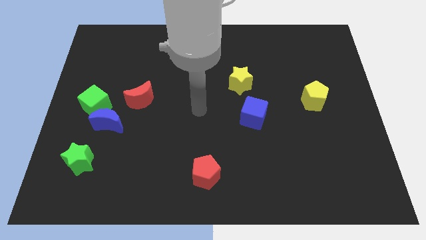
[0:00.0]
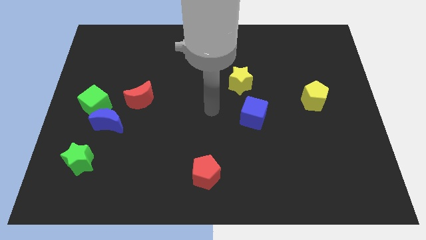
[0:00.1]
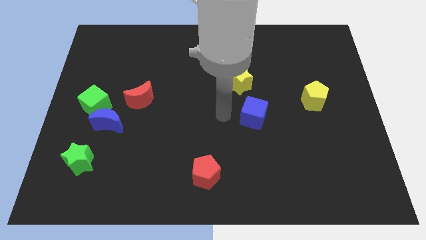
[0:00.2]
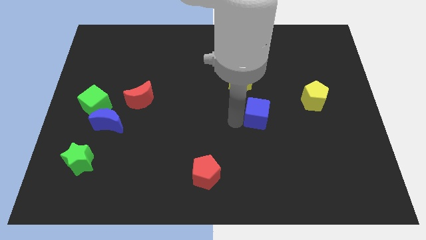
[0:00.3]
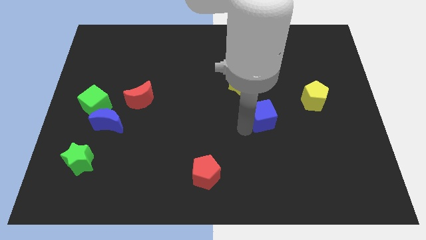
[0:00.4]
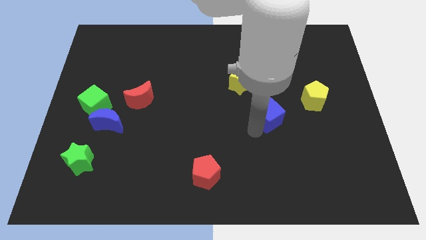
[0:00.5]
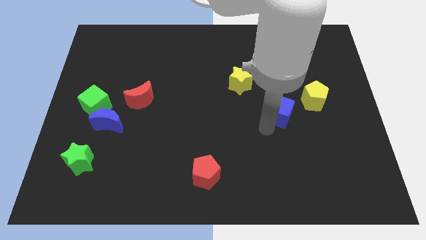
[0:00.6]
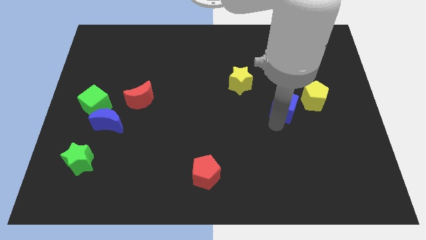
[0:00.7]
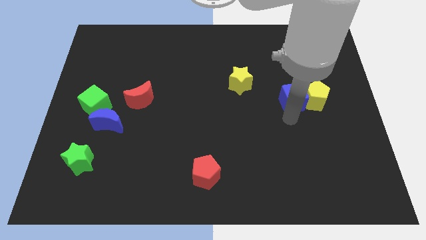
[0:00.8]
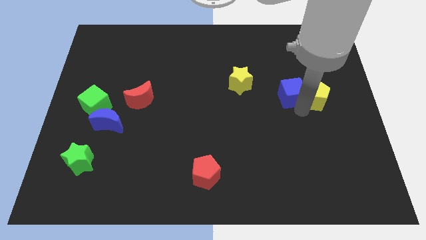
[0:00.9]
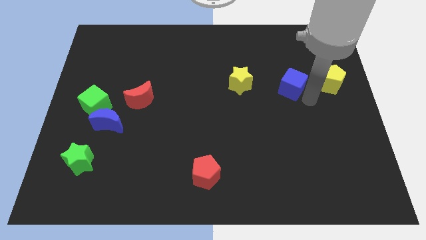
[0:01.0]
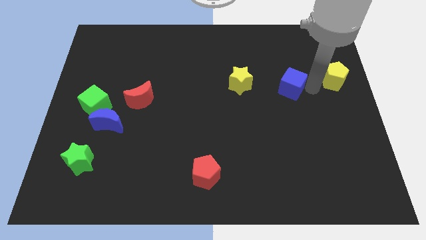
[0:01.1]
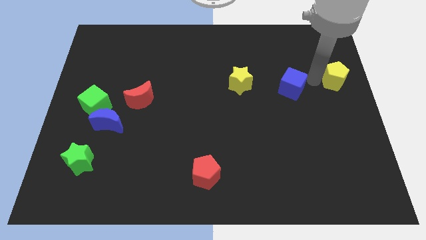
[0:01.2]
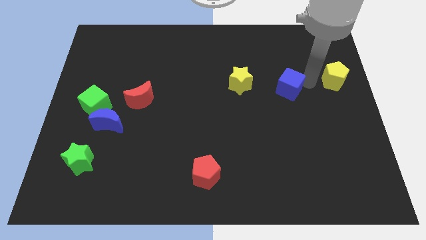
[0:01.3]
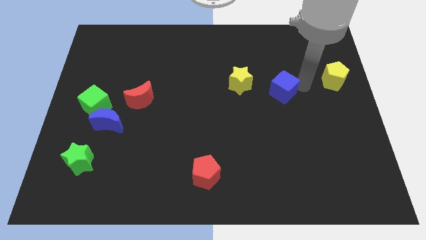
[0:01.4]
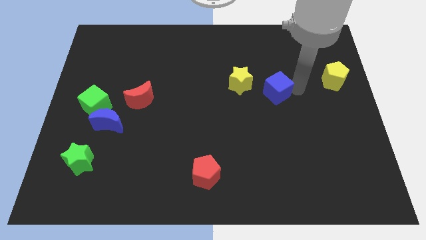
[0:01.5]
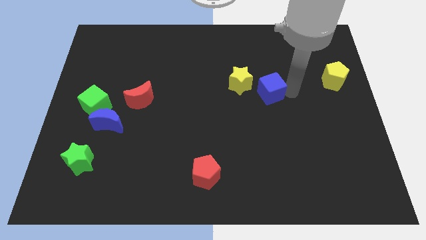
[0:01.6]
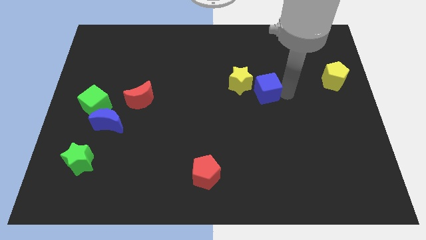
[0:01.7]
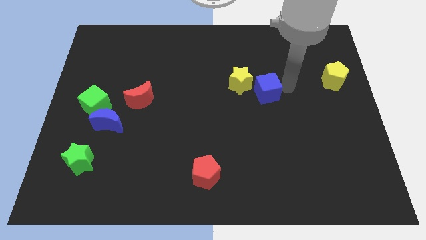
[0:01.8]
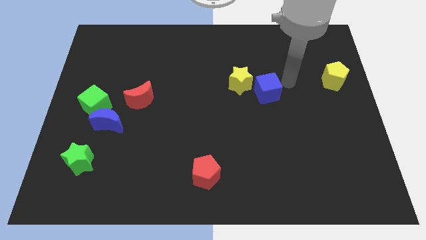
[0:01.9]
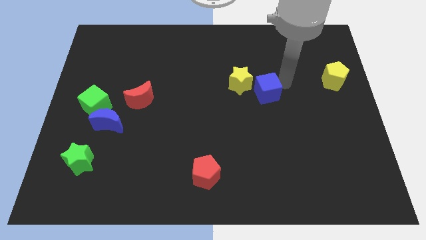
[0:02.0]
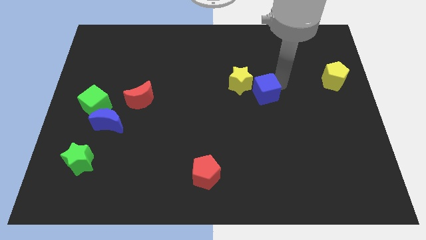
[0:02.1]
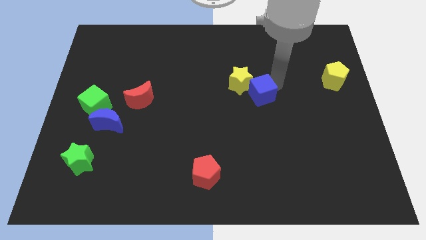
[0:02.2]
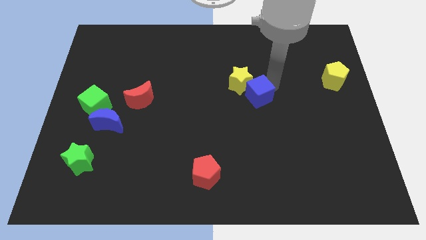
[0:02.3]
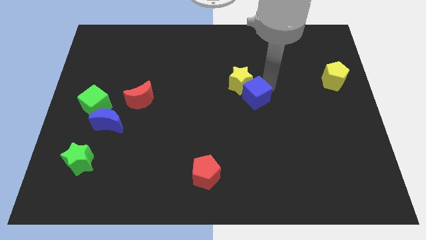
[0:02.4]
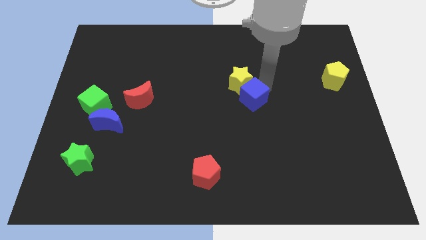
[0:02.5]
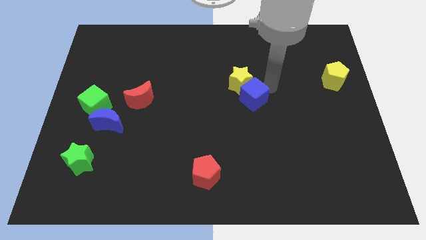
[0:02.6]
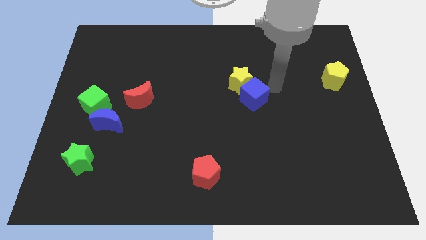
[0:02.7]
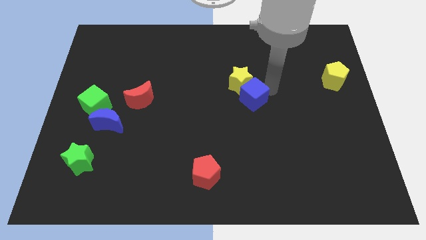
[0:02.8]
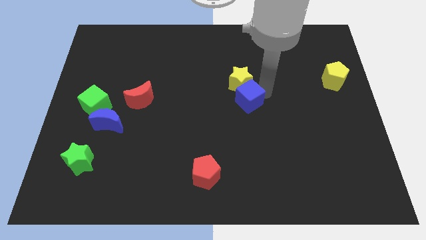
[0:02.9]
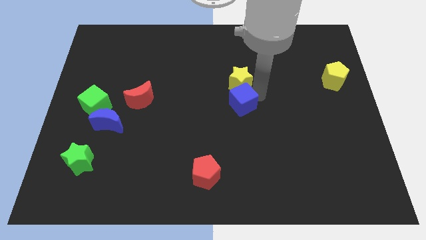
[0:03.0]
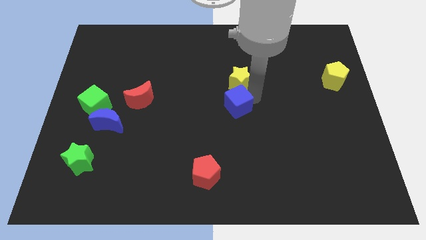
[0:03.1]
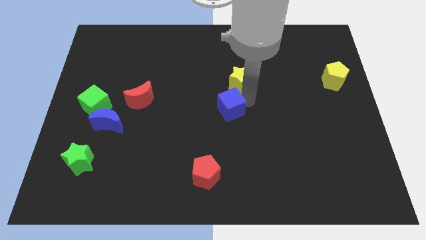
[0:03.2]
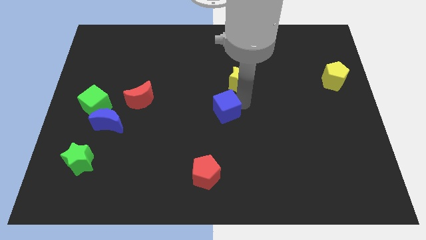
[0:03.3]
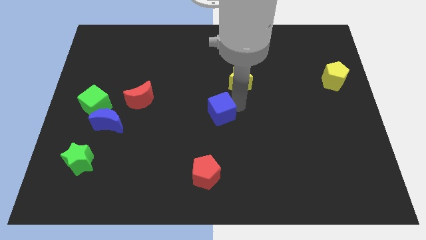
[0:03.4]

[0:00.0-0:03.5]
slightly push the blue cube to the left

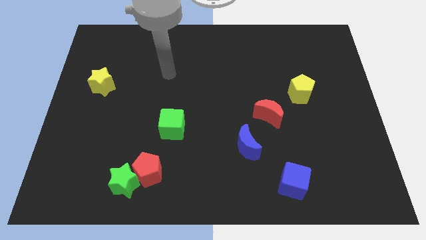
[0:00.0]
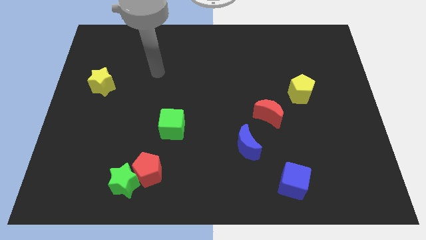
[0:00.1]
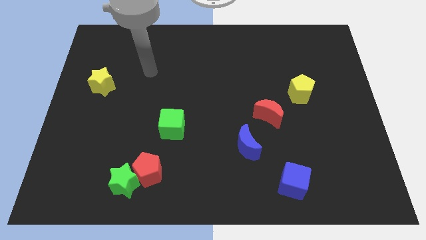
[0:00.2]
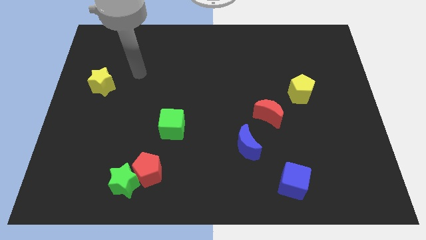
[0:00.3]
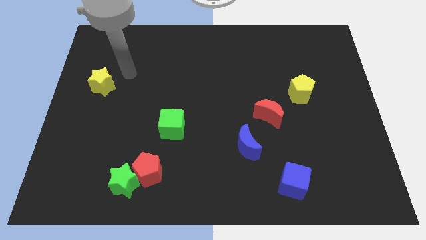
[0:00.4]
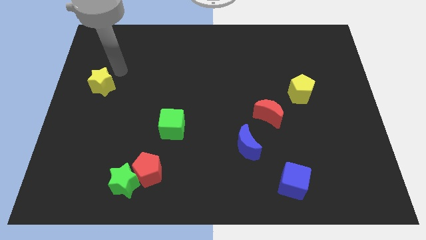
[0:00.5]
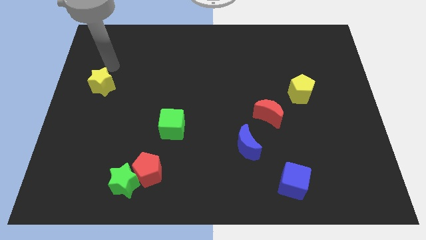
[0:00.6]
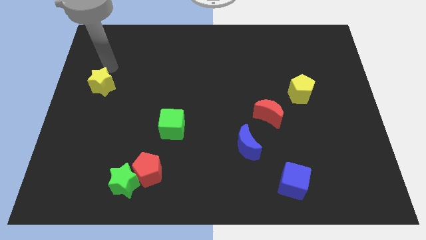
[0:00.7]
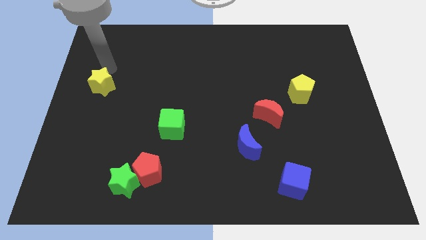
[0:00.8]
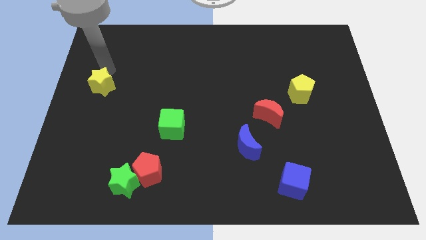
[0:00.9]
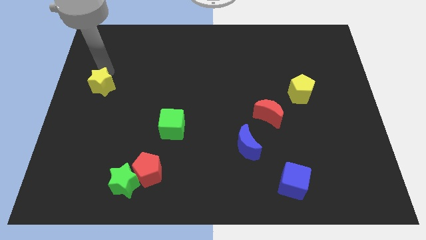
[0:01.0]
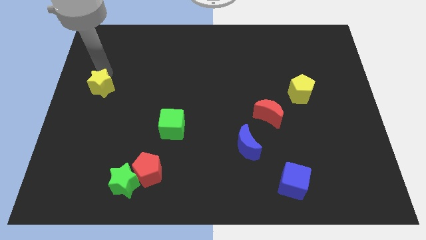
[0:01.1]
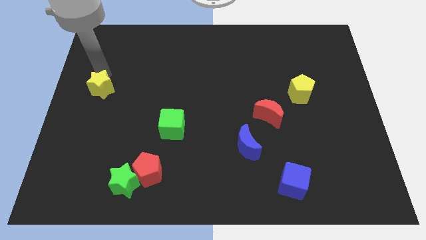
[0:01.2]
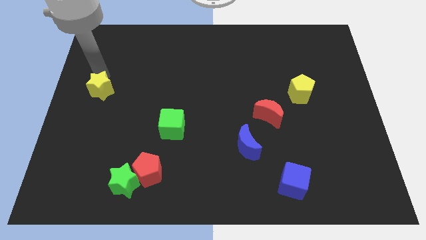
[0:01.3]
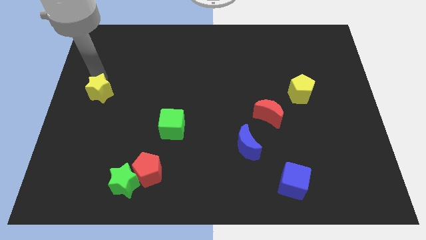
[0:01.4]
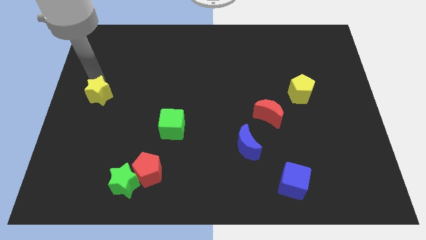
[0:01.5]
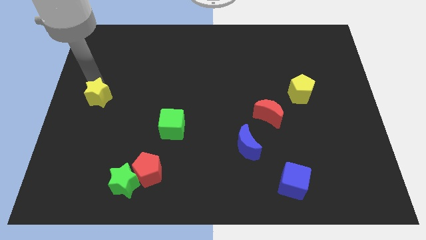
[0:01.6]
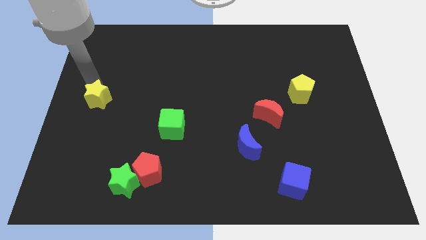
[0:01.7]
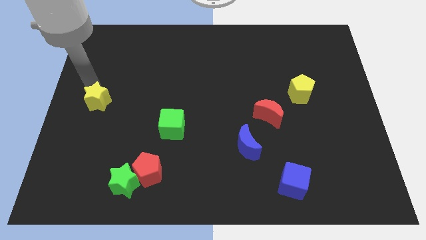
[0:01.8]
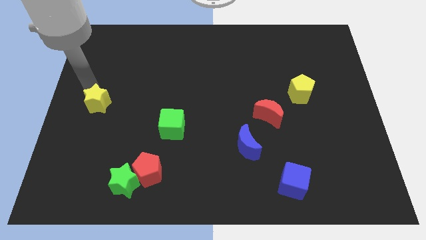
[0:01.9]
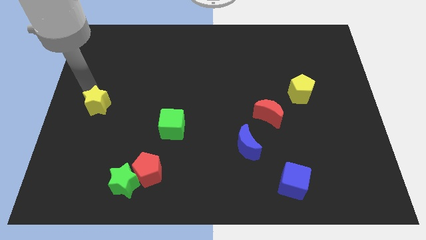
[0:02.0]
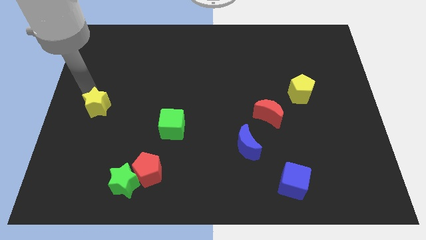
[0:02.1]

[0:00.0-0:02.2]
slightly move the yellow star down

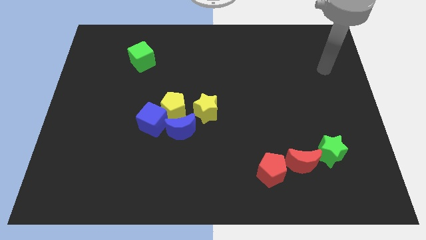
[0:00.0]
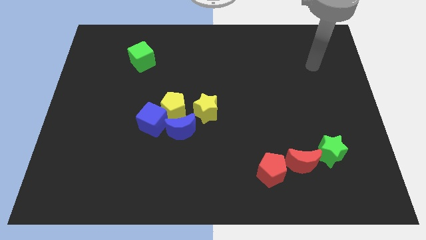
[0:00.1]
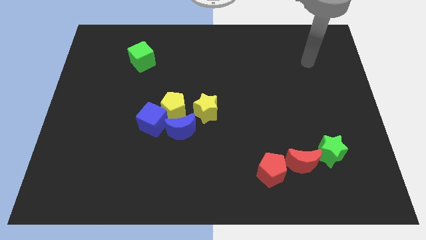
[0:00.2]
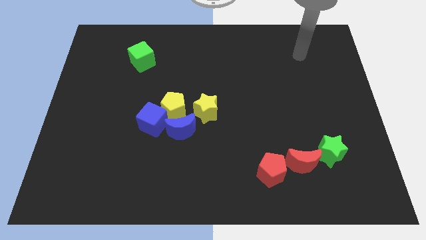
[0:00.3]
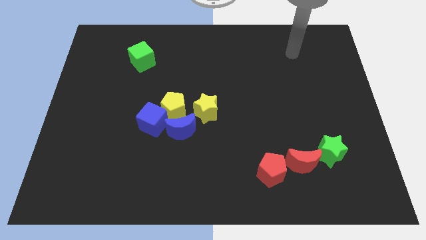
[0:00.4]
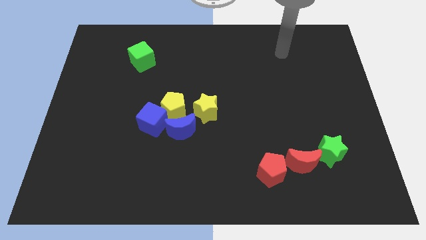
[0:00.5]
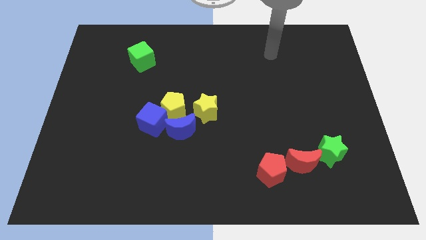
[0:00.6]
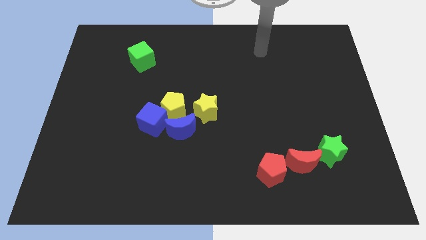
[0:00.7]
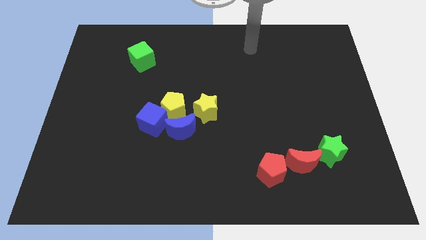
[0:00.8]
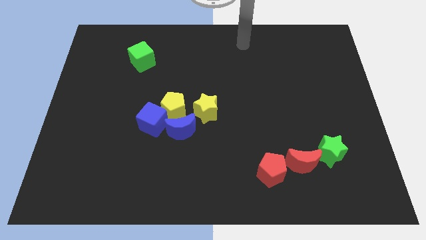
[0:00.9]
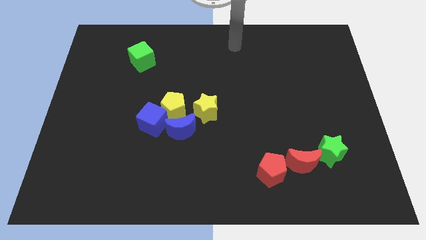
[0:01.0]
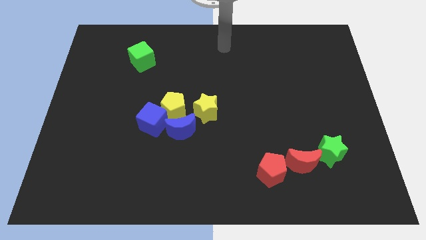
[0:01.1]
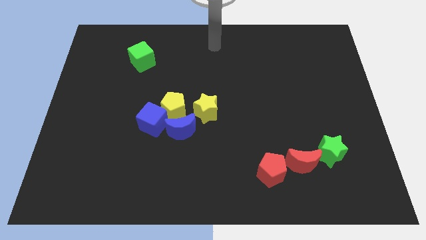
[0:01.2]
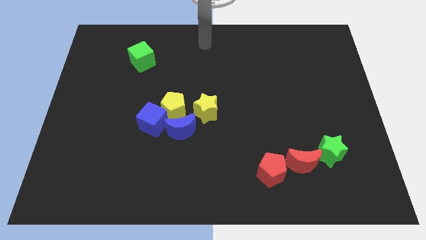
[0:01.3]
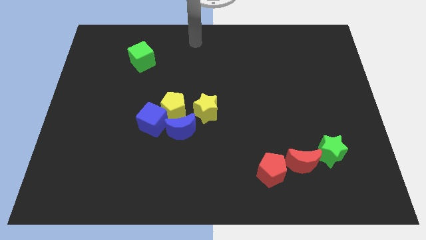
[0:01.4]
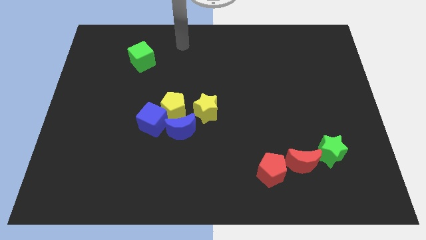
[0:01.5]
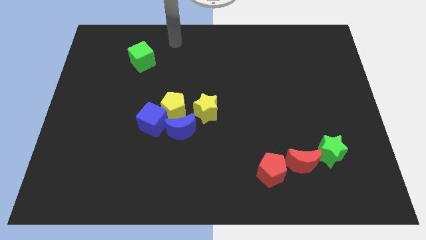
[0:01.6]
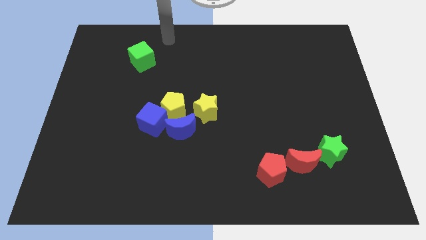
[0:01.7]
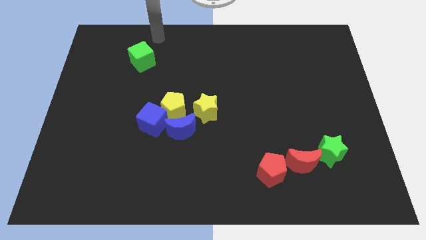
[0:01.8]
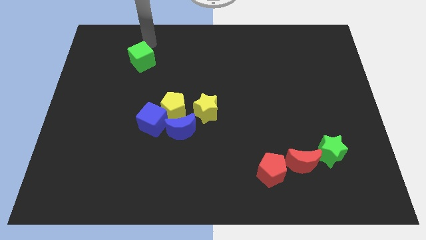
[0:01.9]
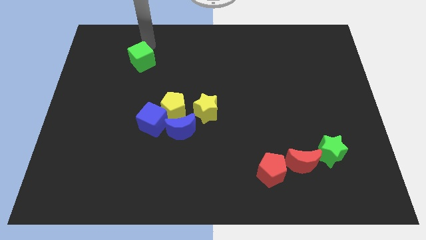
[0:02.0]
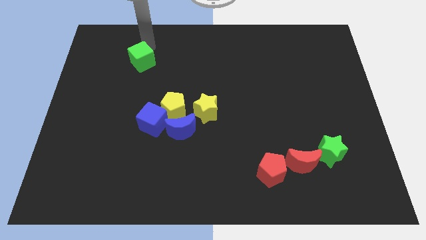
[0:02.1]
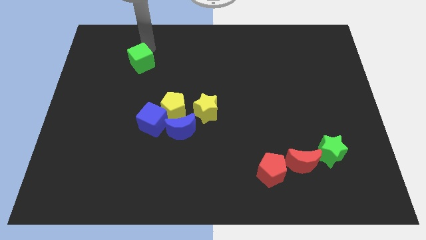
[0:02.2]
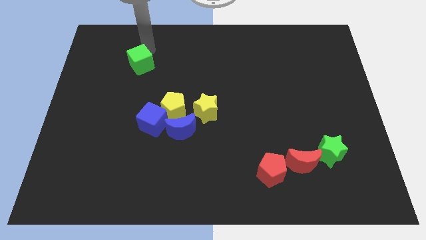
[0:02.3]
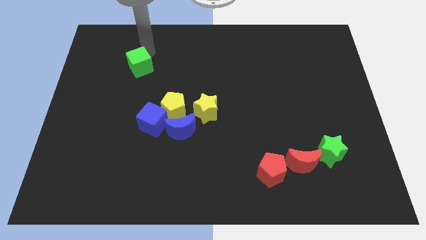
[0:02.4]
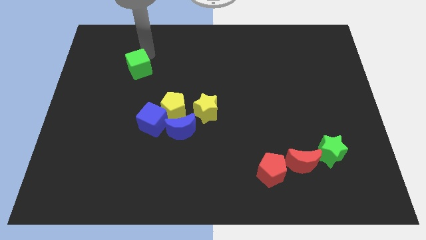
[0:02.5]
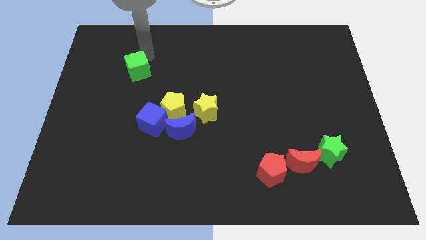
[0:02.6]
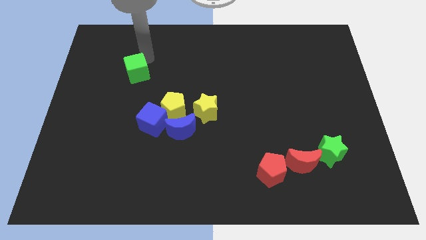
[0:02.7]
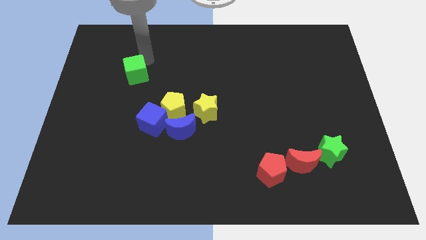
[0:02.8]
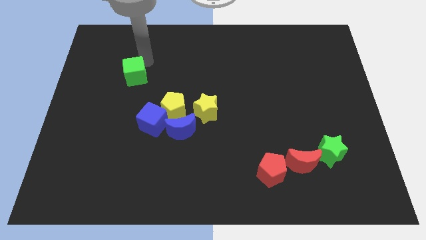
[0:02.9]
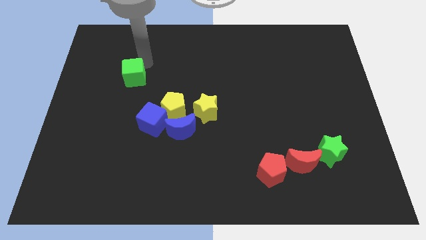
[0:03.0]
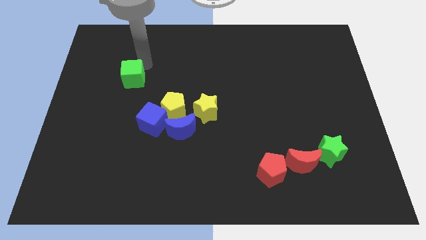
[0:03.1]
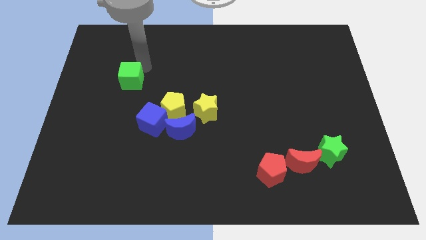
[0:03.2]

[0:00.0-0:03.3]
slightly move the green cube downwards
